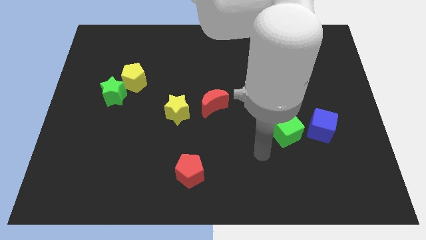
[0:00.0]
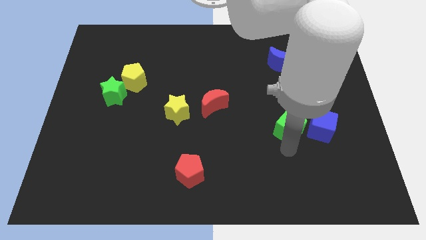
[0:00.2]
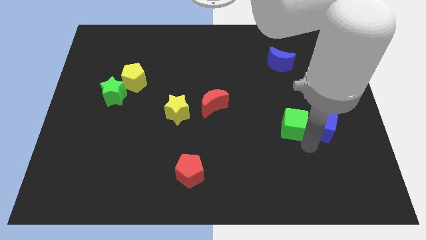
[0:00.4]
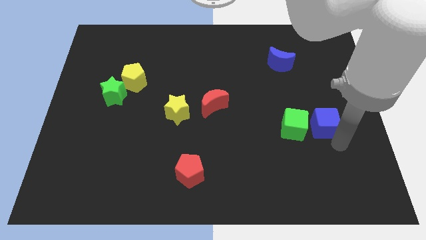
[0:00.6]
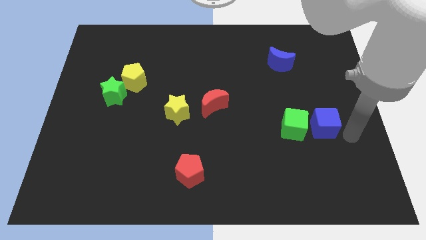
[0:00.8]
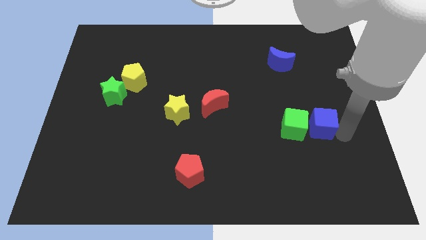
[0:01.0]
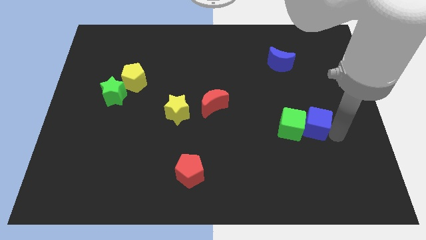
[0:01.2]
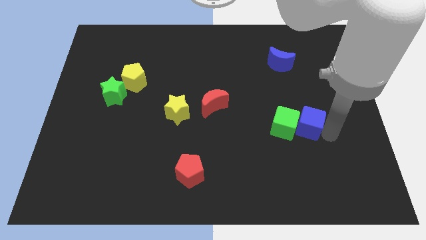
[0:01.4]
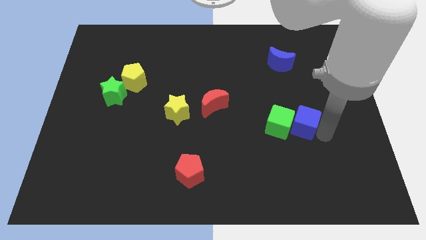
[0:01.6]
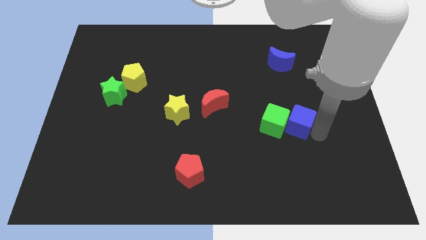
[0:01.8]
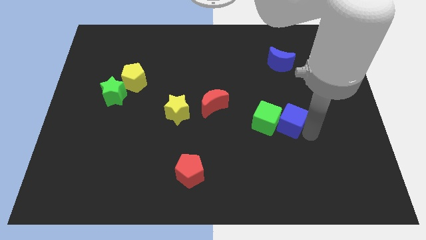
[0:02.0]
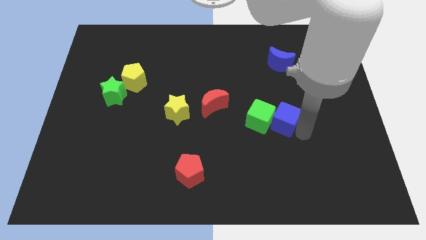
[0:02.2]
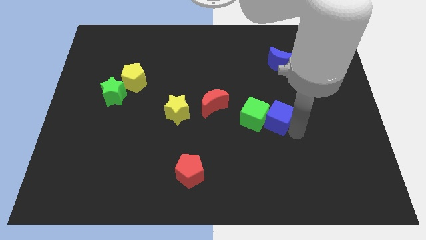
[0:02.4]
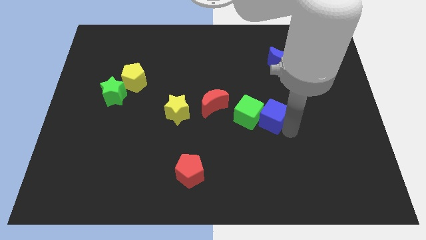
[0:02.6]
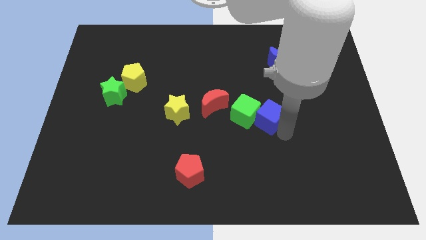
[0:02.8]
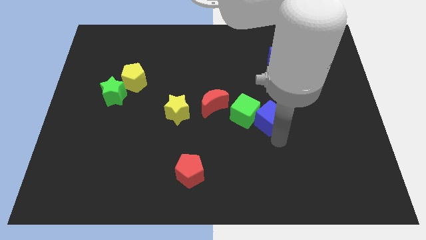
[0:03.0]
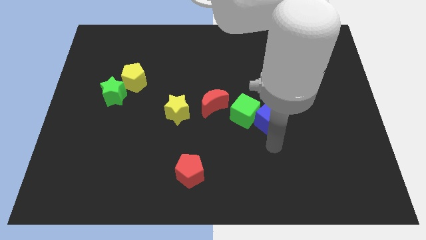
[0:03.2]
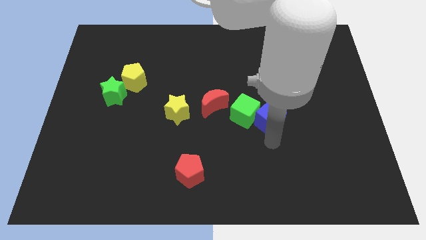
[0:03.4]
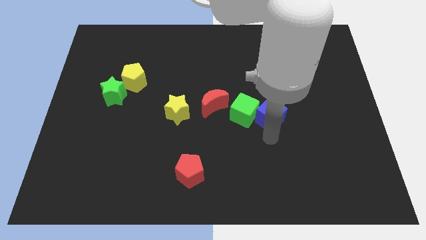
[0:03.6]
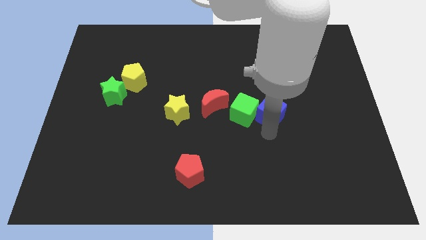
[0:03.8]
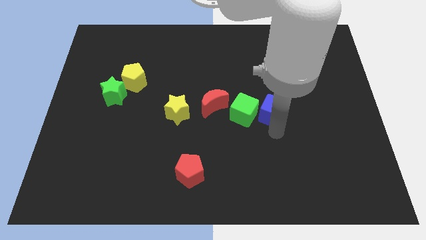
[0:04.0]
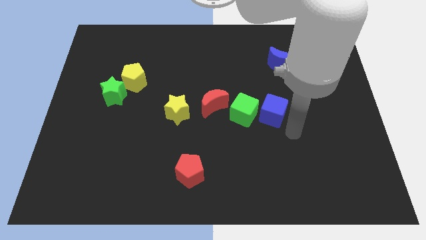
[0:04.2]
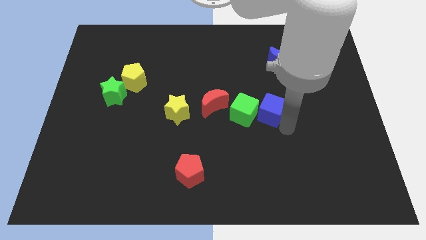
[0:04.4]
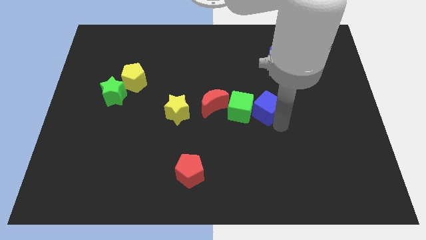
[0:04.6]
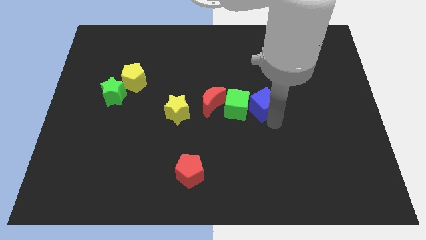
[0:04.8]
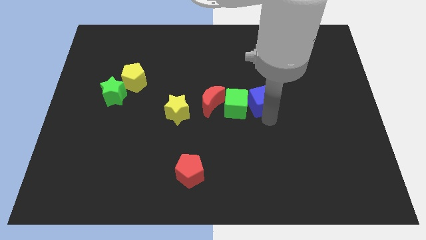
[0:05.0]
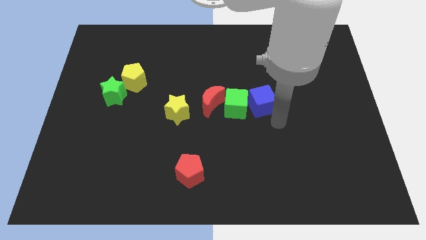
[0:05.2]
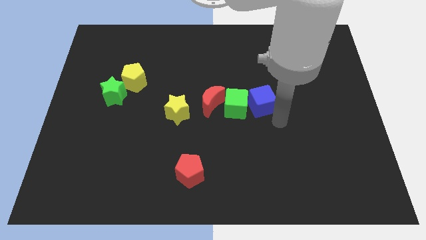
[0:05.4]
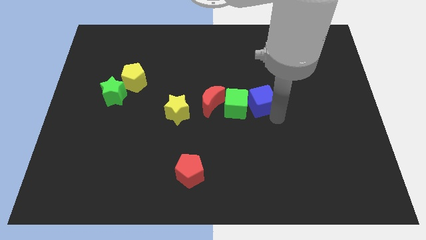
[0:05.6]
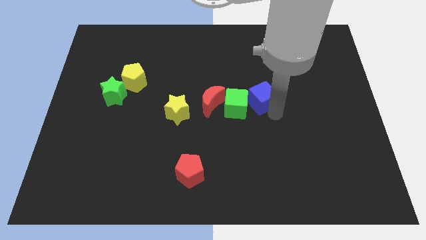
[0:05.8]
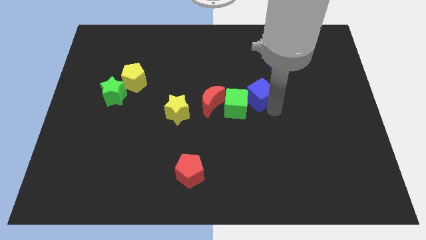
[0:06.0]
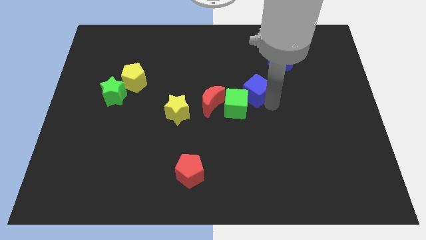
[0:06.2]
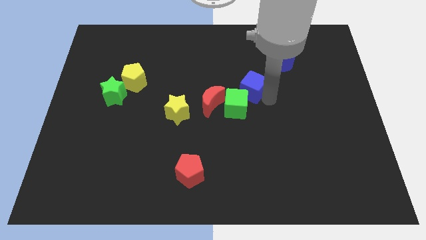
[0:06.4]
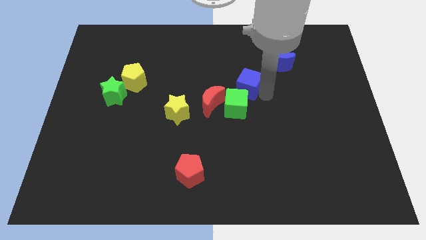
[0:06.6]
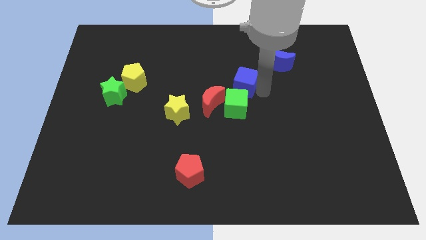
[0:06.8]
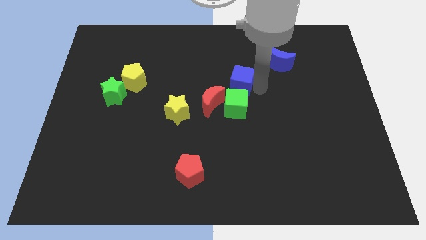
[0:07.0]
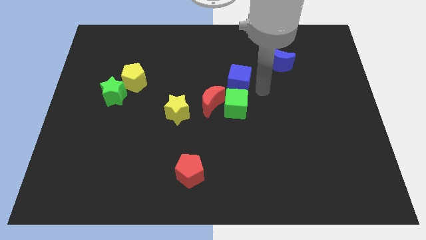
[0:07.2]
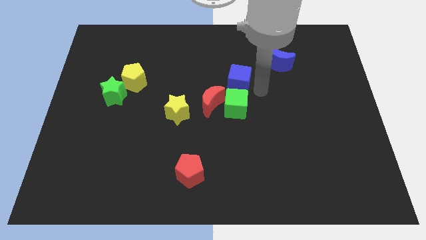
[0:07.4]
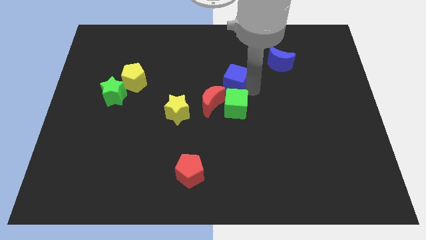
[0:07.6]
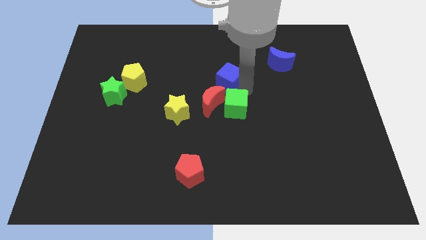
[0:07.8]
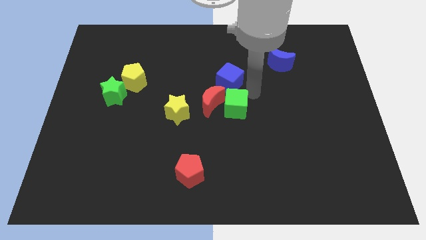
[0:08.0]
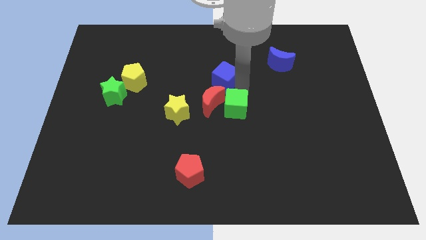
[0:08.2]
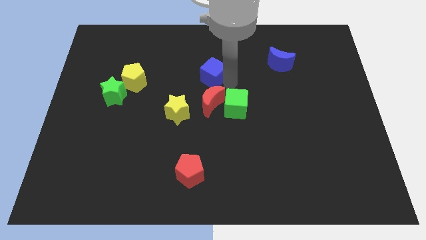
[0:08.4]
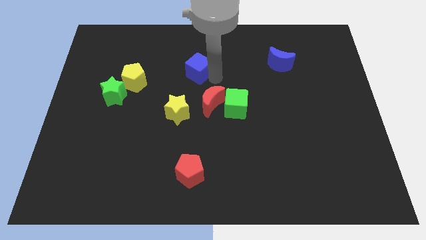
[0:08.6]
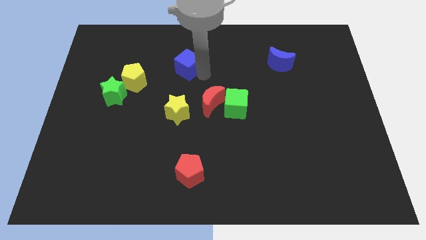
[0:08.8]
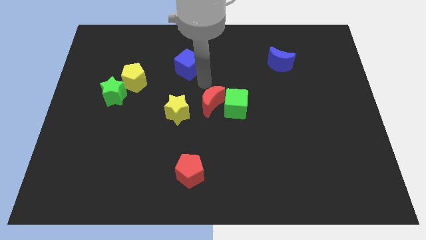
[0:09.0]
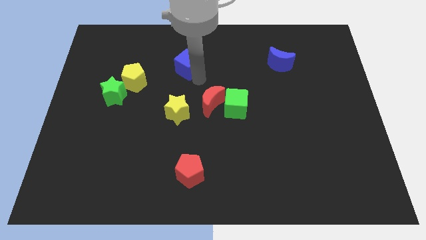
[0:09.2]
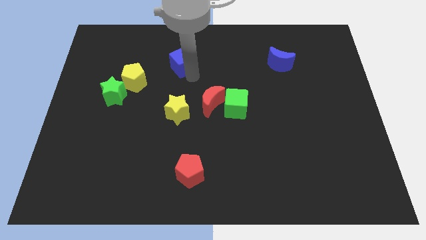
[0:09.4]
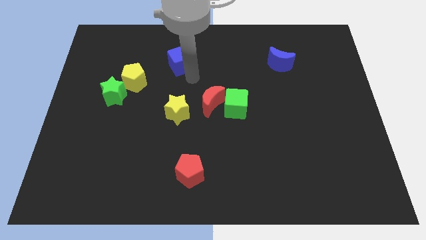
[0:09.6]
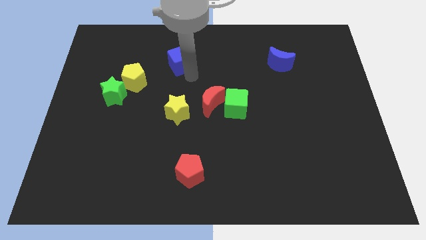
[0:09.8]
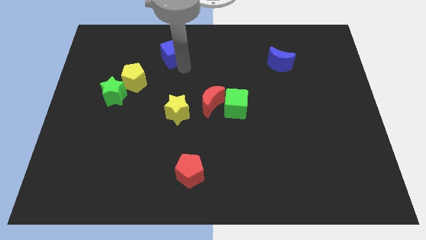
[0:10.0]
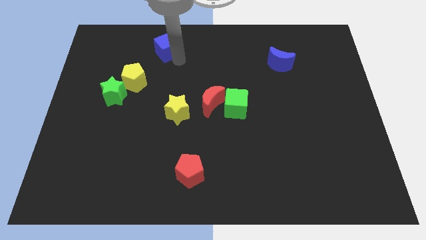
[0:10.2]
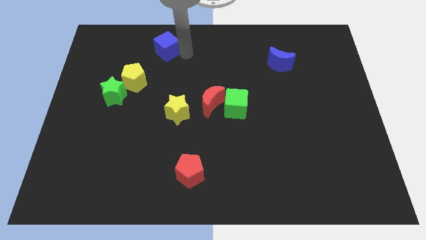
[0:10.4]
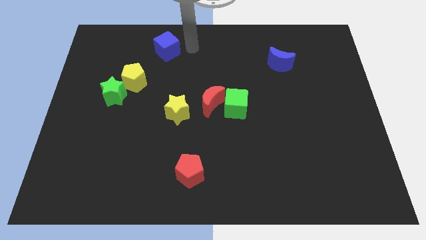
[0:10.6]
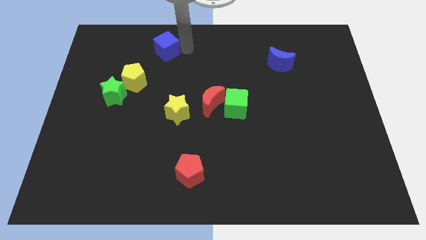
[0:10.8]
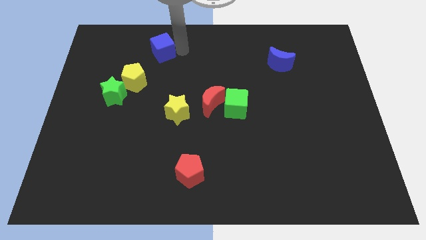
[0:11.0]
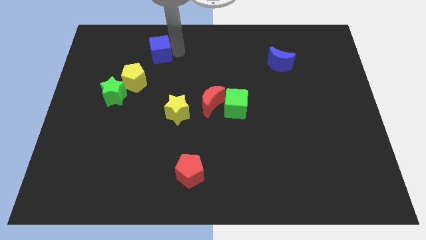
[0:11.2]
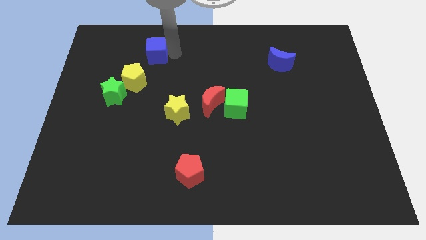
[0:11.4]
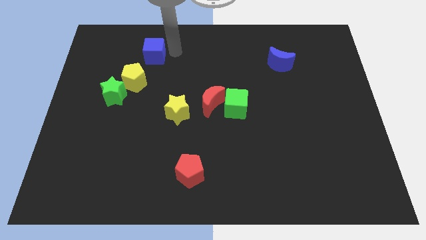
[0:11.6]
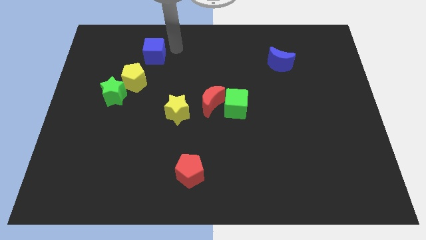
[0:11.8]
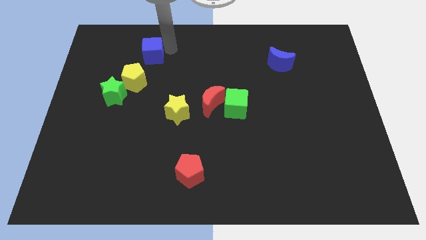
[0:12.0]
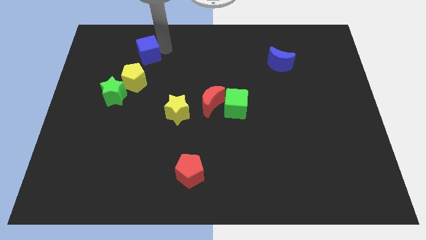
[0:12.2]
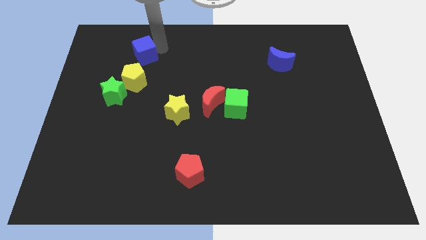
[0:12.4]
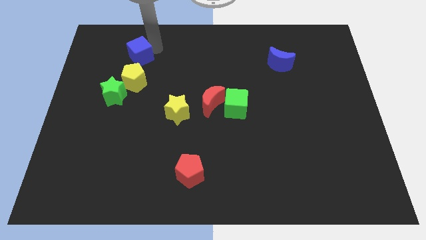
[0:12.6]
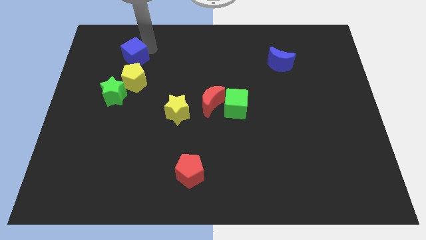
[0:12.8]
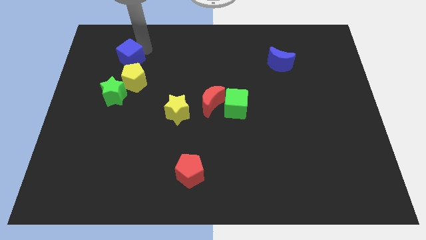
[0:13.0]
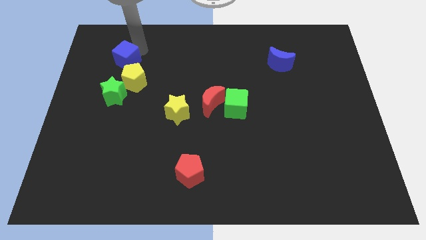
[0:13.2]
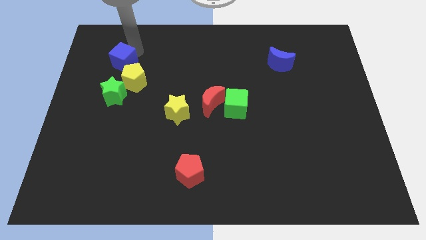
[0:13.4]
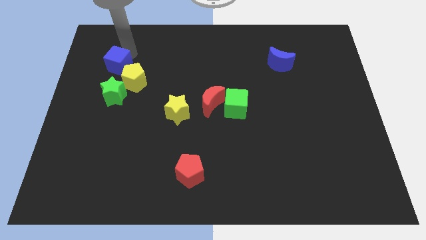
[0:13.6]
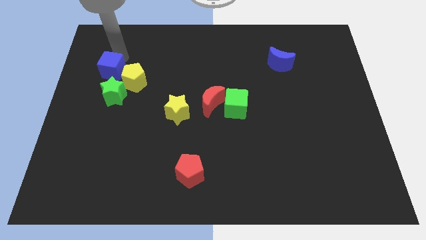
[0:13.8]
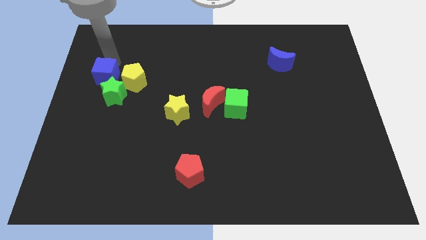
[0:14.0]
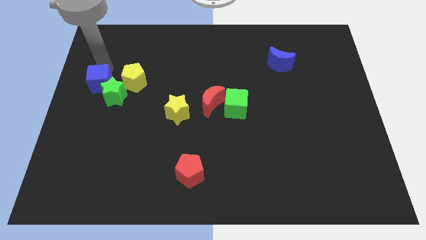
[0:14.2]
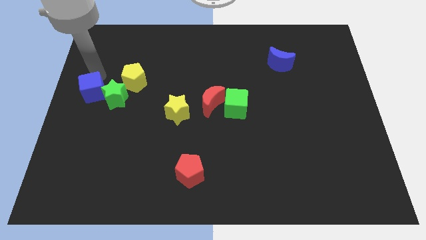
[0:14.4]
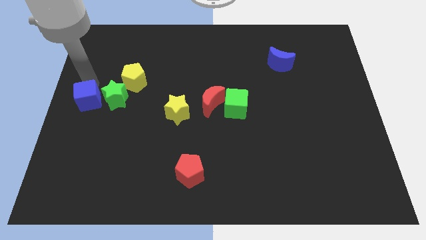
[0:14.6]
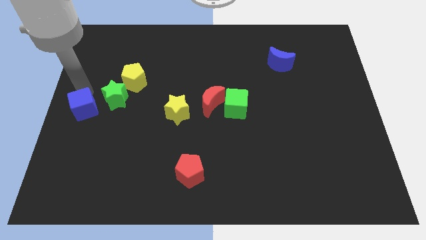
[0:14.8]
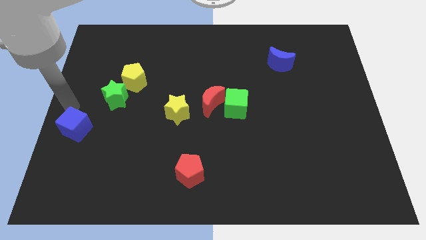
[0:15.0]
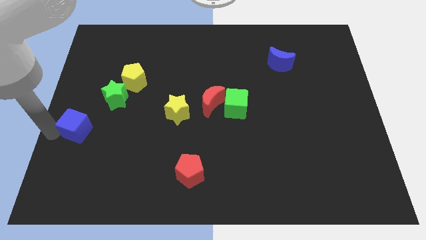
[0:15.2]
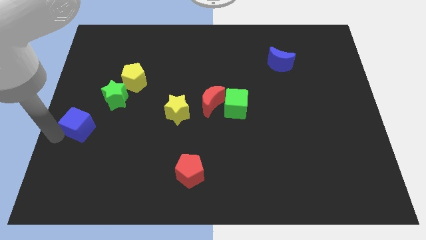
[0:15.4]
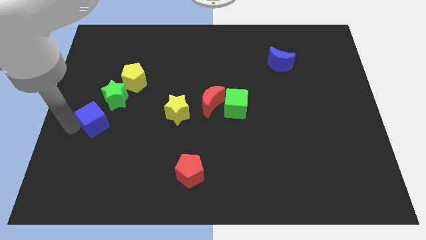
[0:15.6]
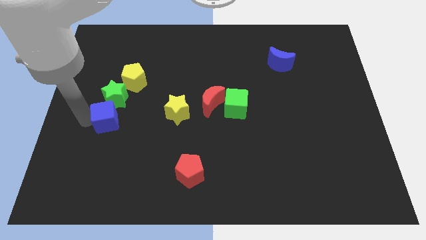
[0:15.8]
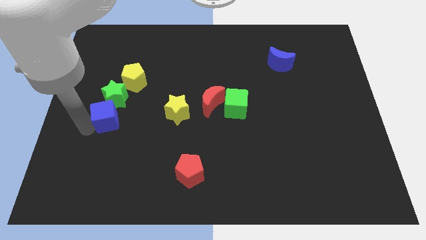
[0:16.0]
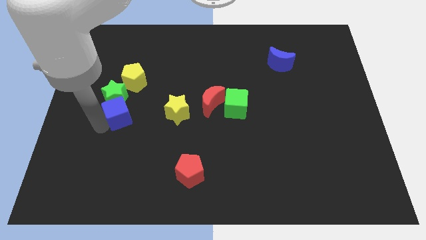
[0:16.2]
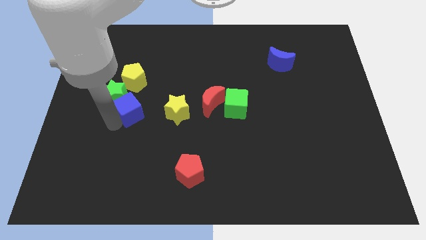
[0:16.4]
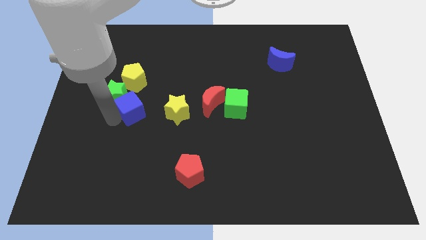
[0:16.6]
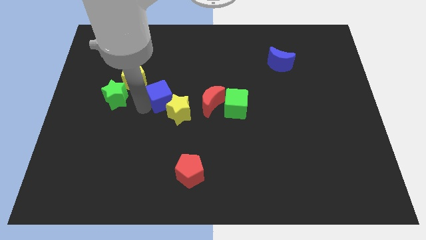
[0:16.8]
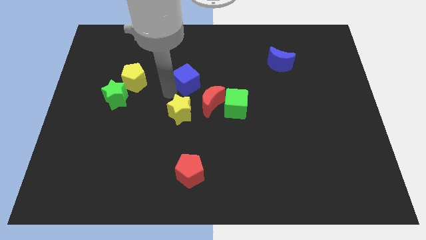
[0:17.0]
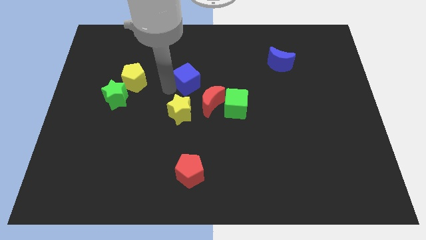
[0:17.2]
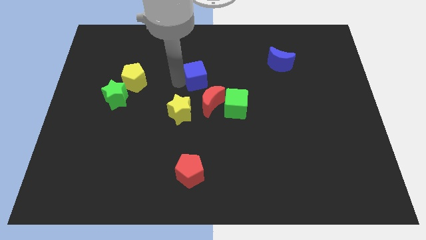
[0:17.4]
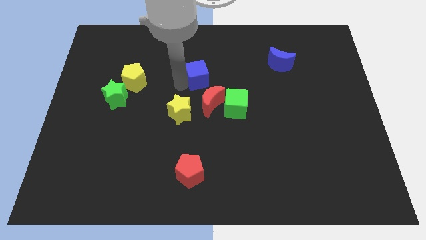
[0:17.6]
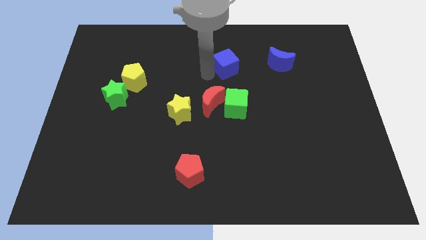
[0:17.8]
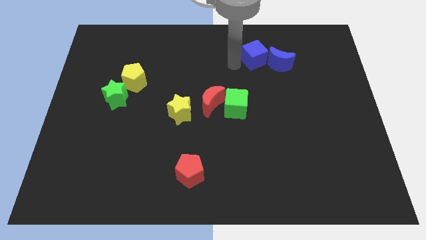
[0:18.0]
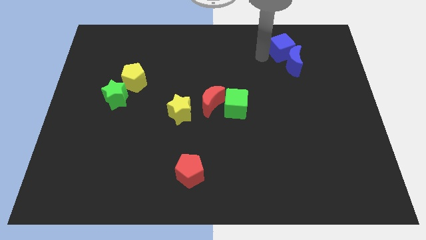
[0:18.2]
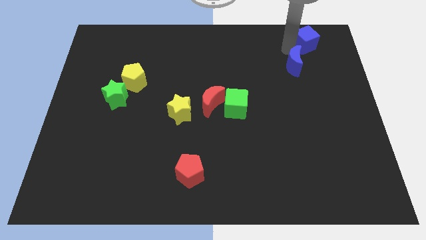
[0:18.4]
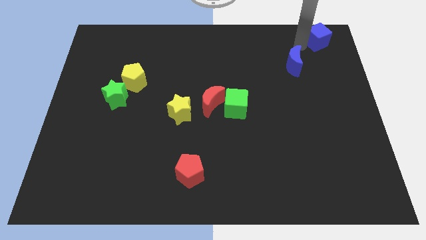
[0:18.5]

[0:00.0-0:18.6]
slide the blue cube to the top right of the board
